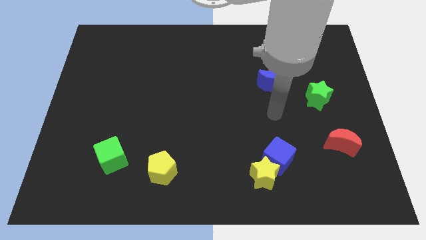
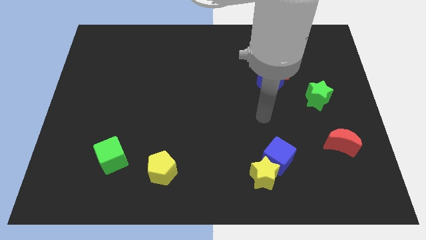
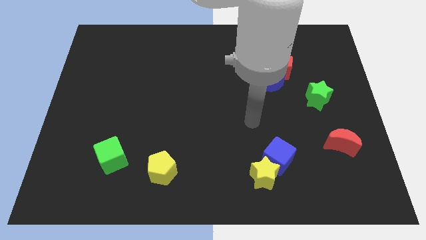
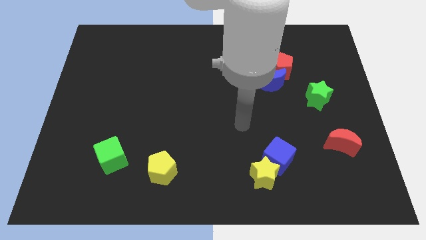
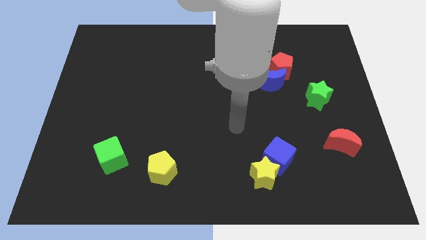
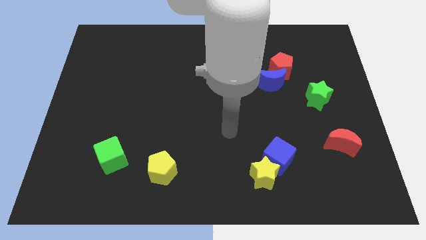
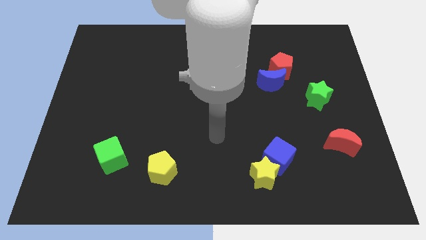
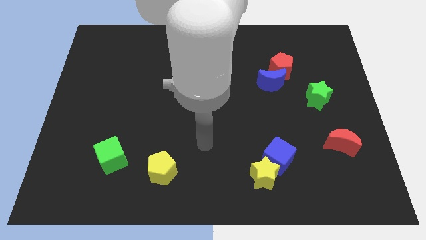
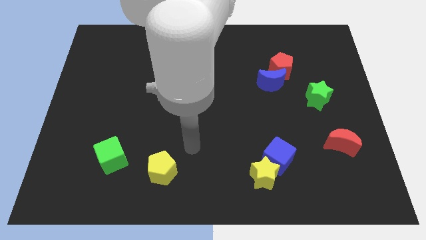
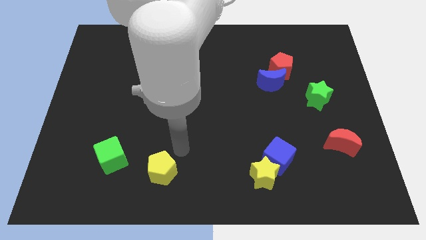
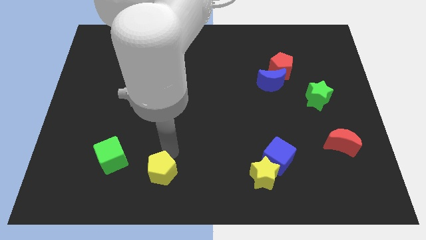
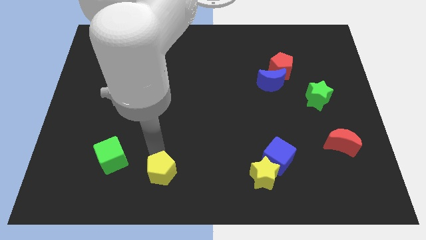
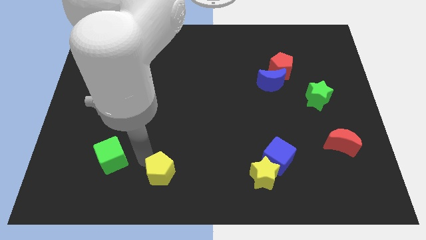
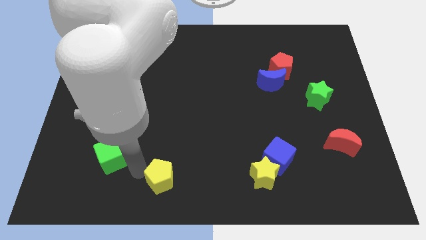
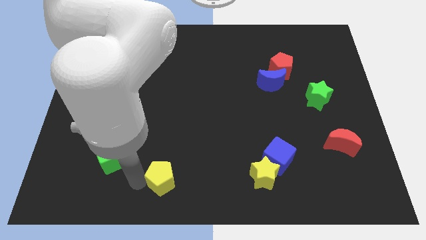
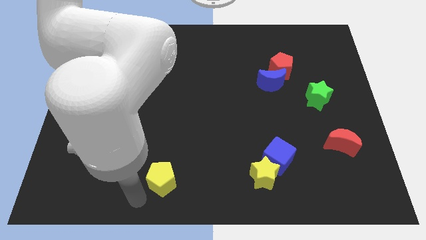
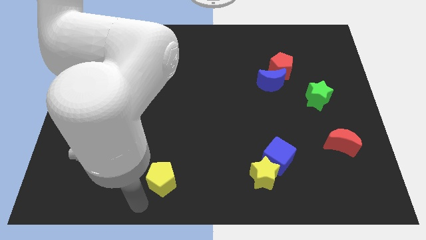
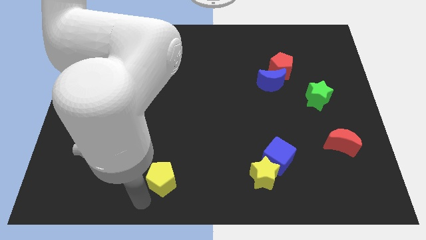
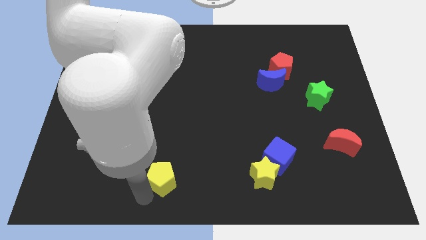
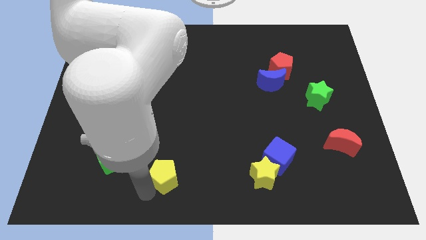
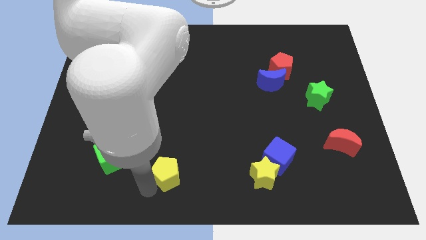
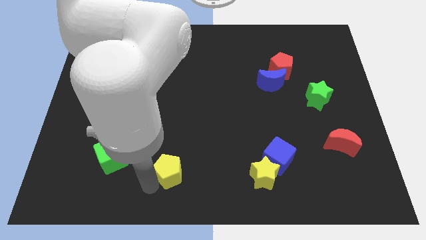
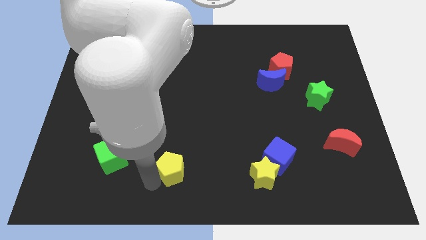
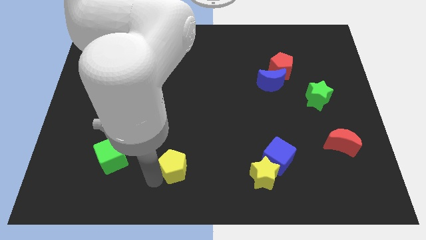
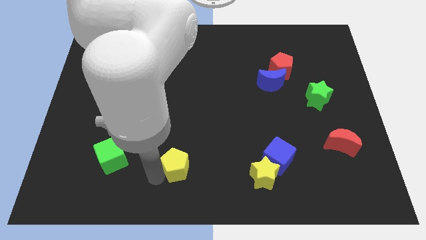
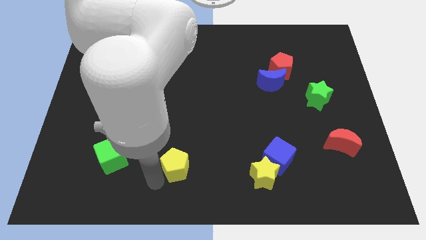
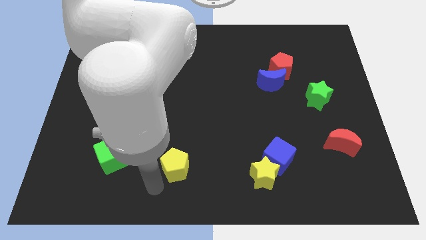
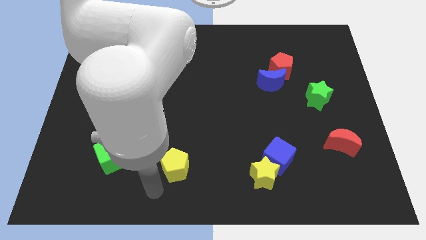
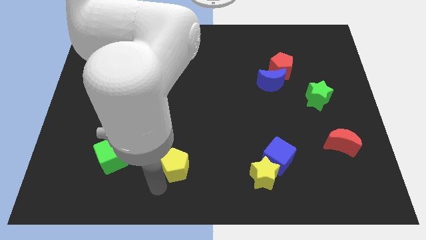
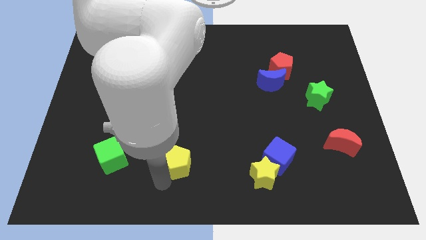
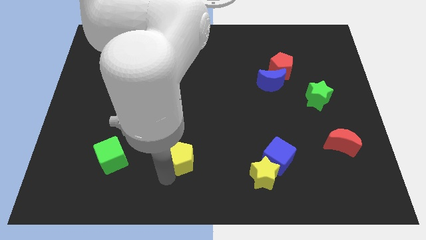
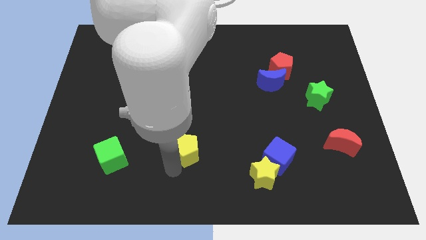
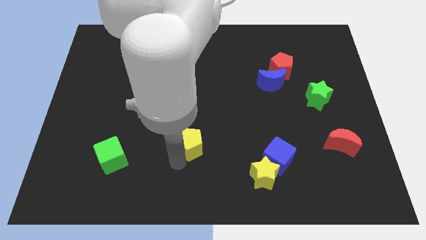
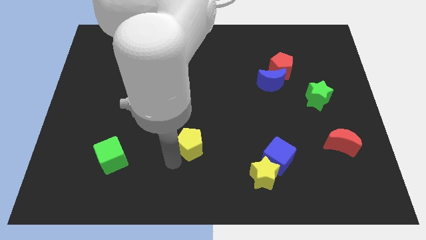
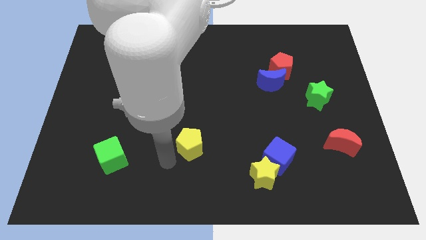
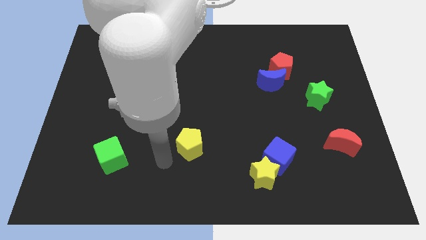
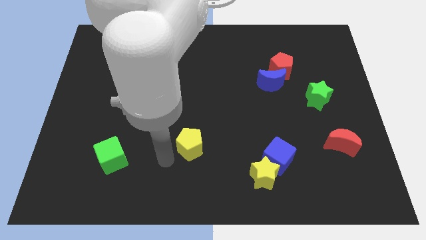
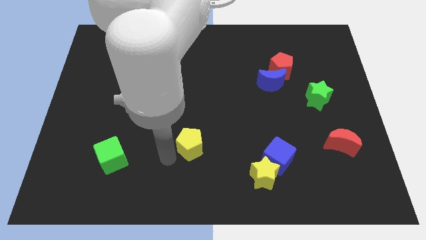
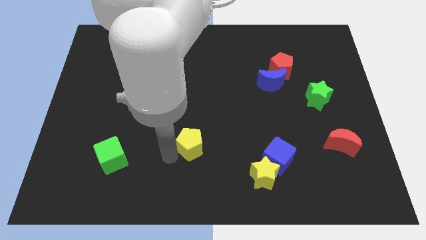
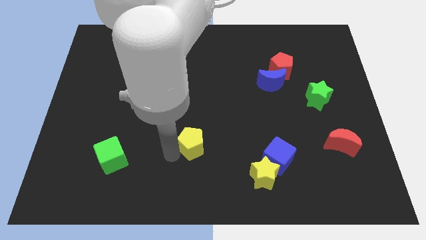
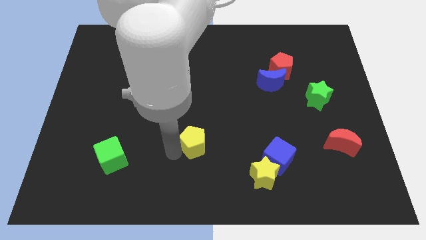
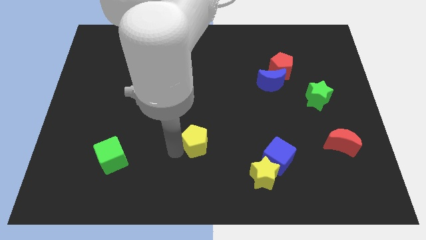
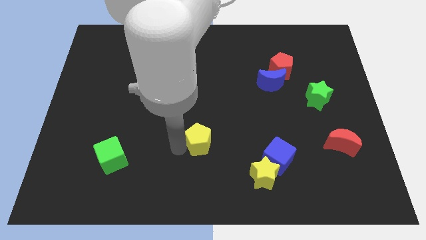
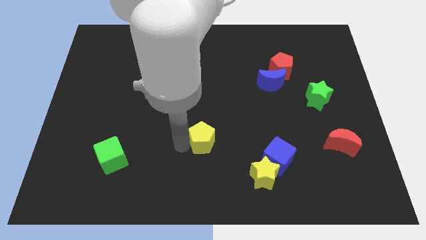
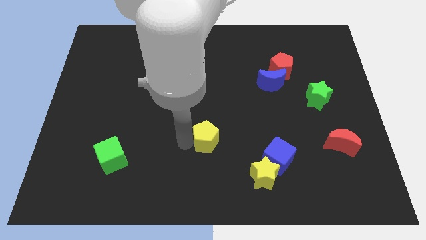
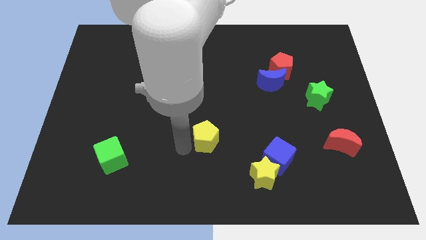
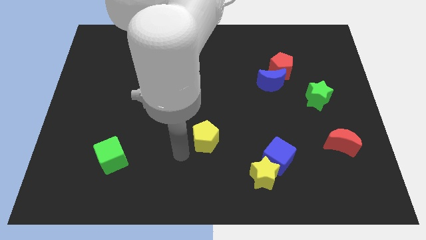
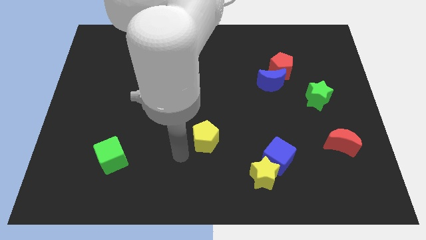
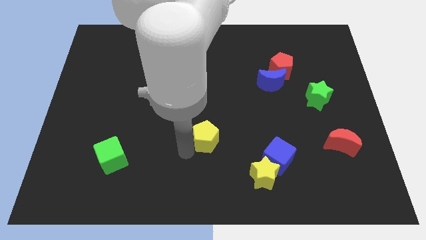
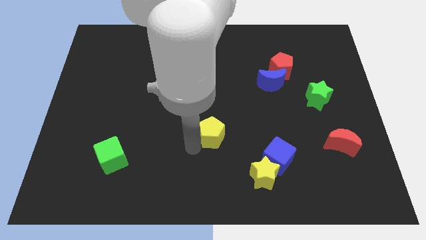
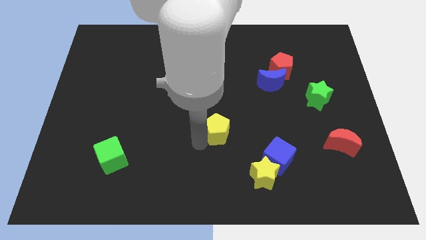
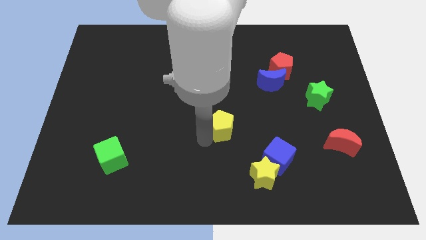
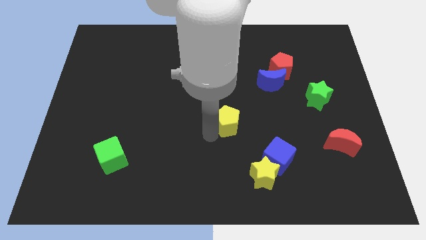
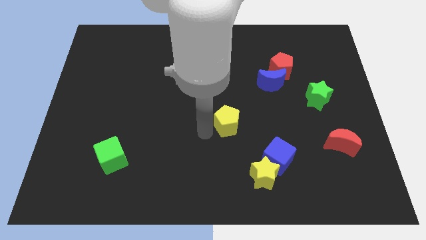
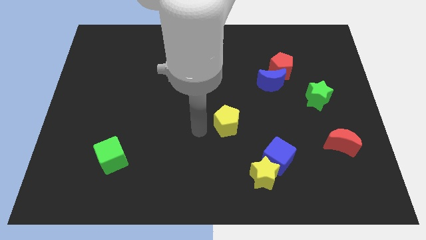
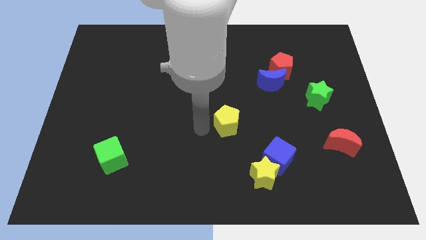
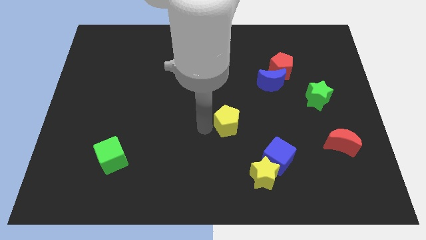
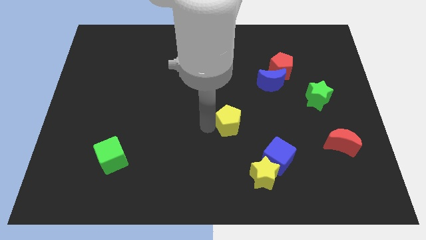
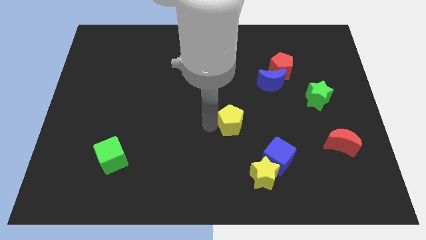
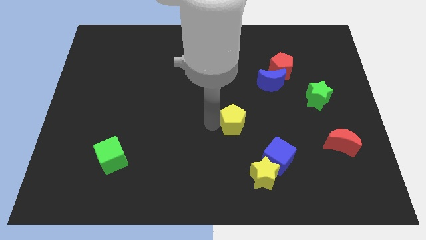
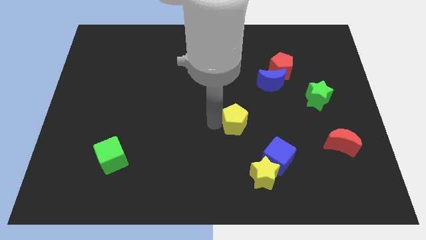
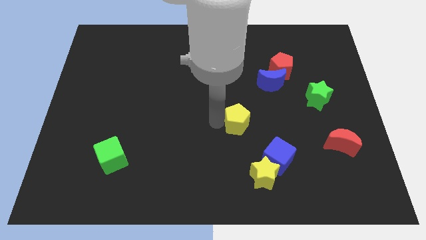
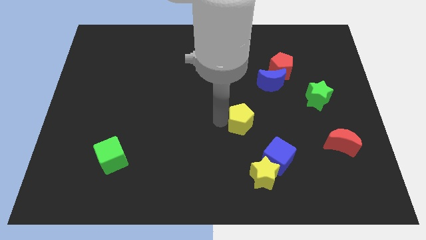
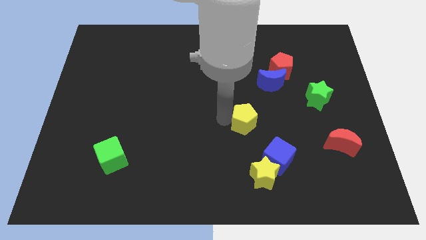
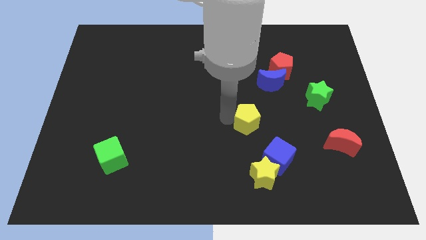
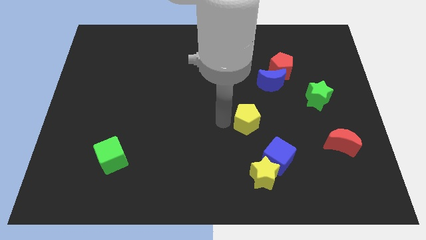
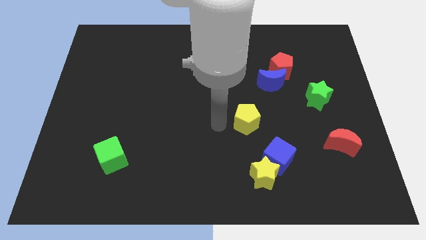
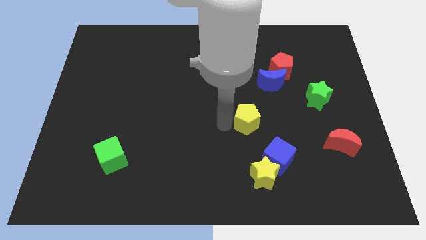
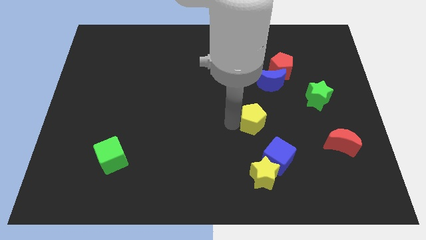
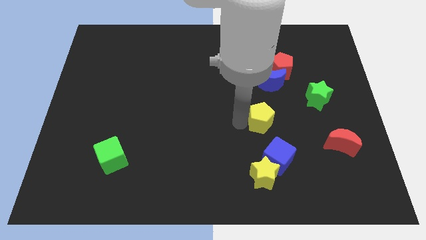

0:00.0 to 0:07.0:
move the yellow pentagon to the bottom side of the blue moon
